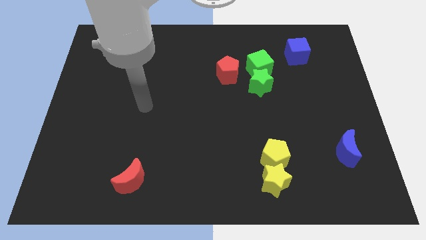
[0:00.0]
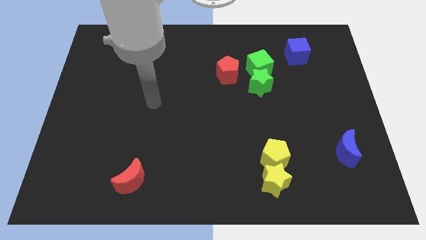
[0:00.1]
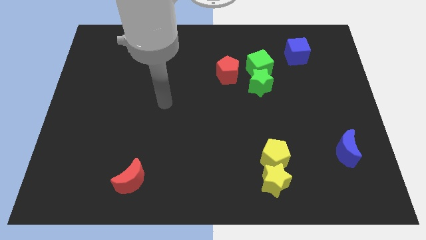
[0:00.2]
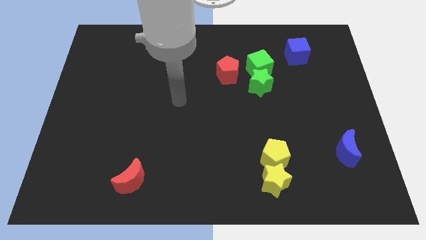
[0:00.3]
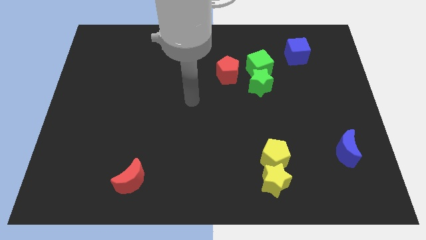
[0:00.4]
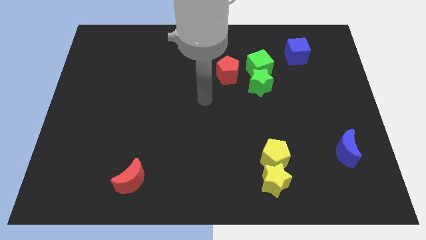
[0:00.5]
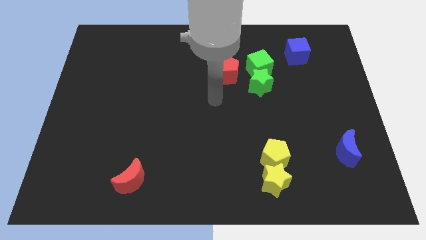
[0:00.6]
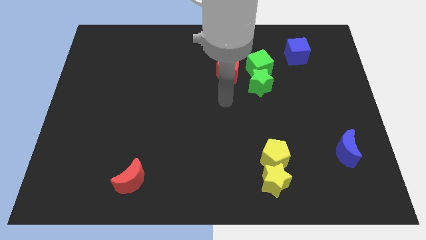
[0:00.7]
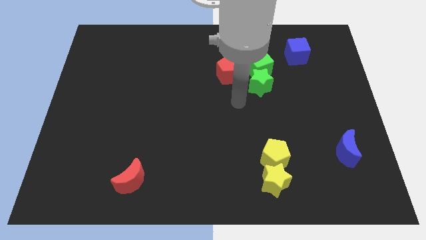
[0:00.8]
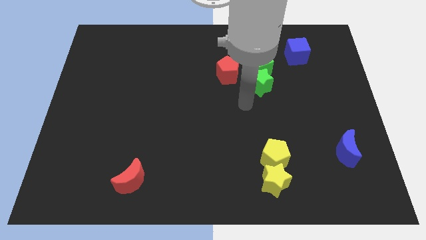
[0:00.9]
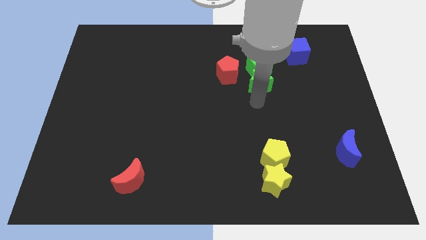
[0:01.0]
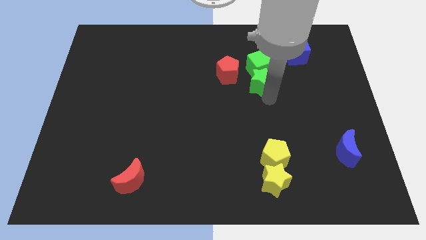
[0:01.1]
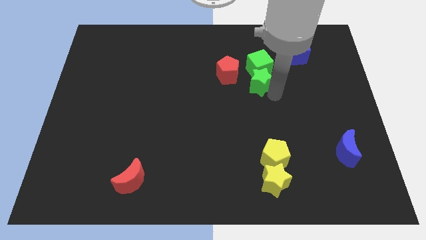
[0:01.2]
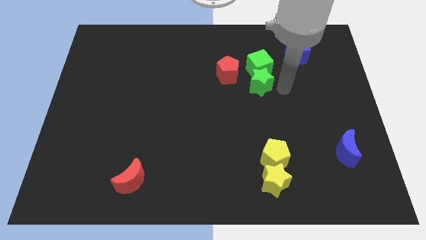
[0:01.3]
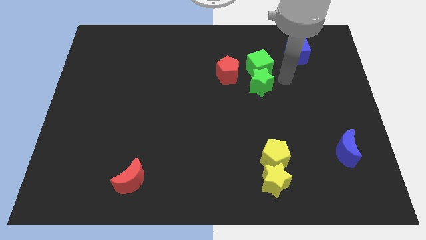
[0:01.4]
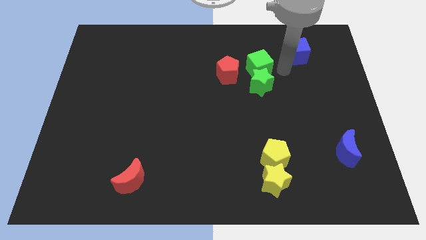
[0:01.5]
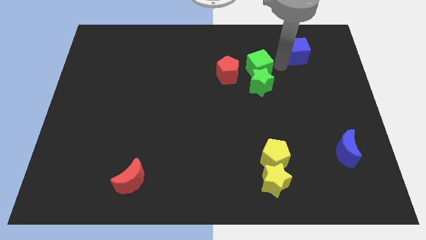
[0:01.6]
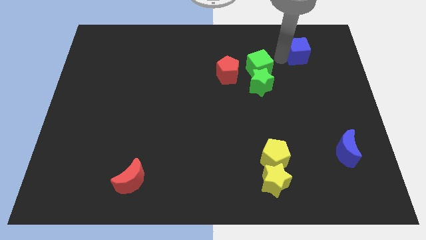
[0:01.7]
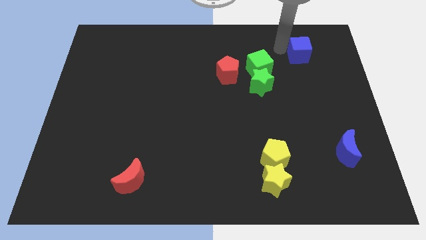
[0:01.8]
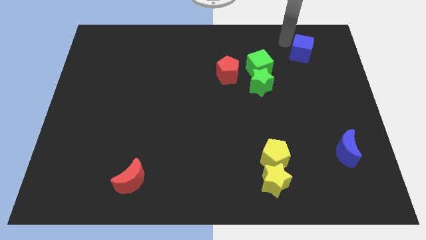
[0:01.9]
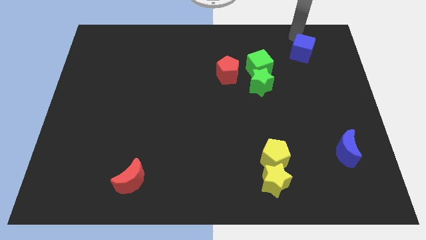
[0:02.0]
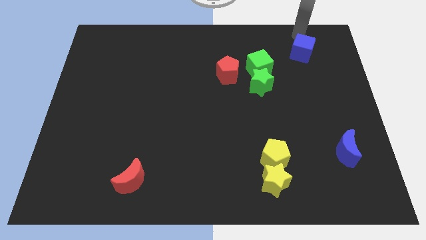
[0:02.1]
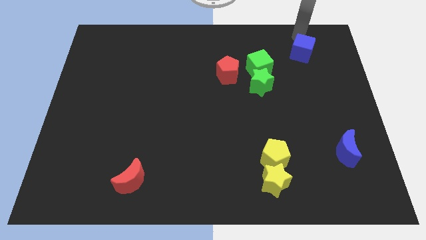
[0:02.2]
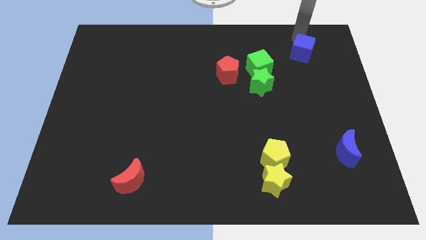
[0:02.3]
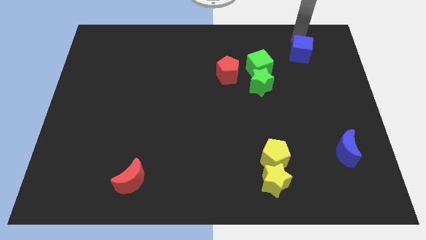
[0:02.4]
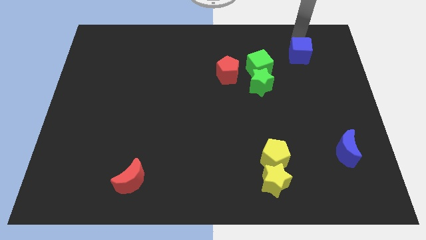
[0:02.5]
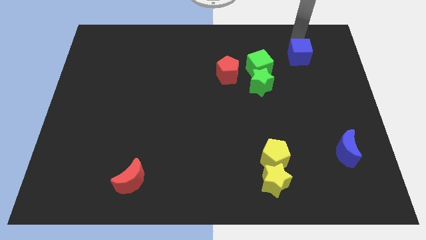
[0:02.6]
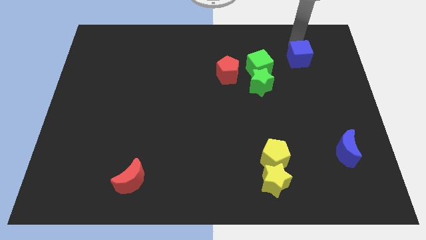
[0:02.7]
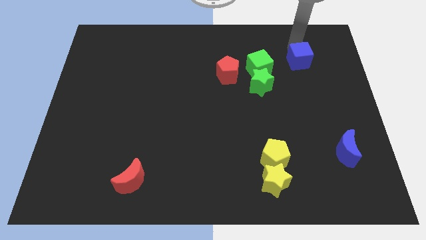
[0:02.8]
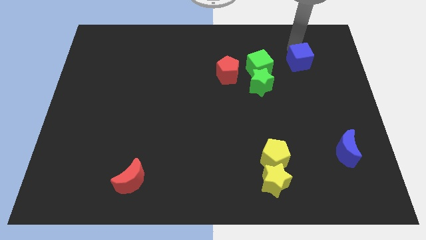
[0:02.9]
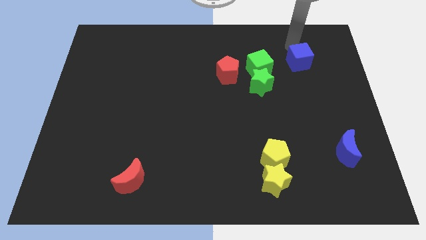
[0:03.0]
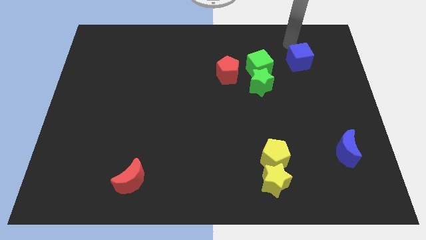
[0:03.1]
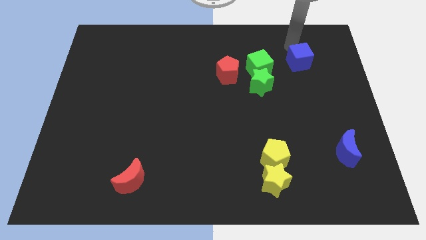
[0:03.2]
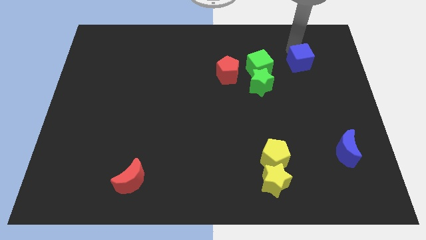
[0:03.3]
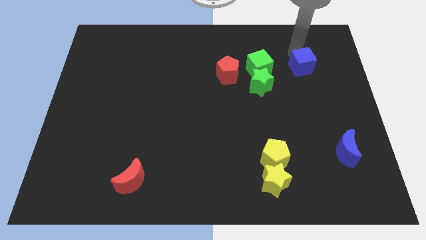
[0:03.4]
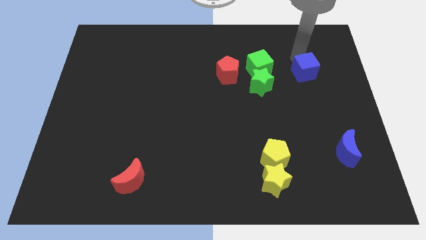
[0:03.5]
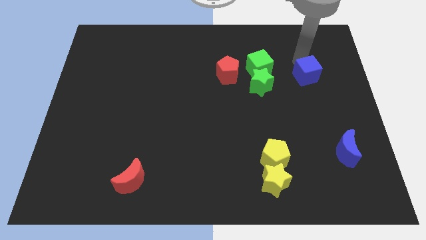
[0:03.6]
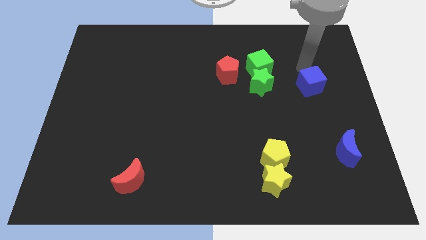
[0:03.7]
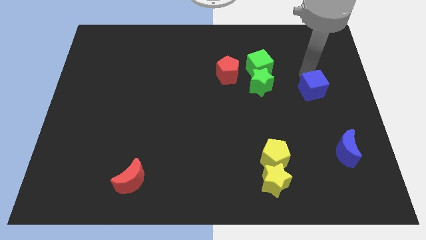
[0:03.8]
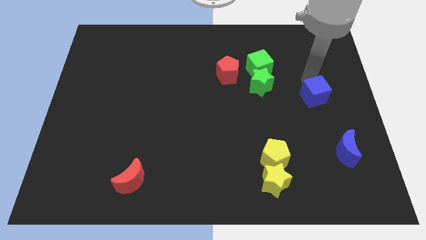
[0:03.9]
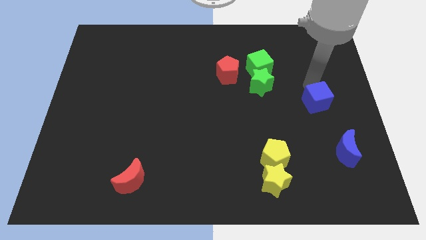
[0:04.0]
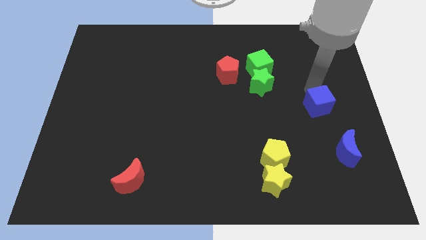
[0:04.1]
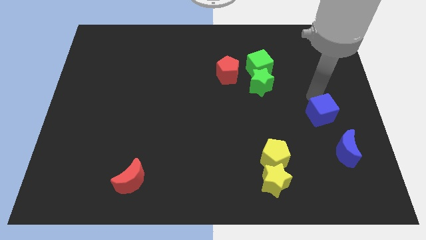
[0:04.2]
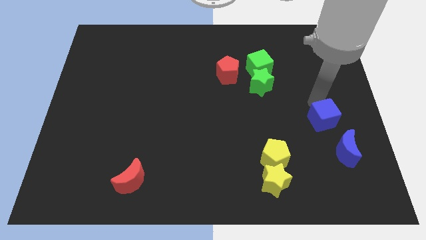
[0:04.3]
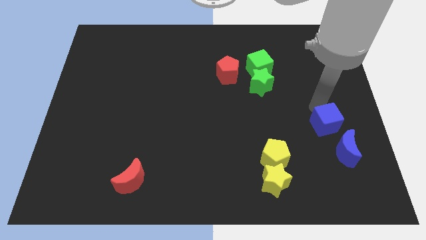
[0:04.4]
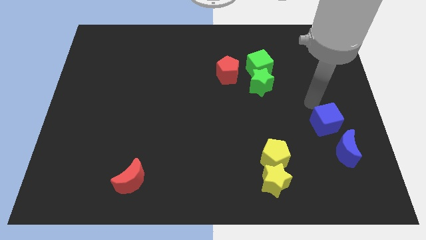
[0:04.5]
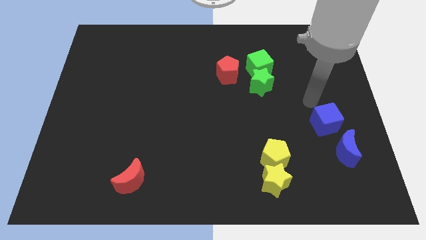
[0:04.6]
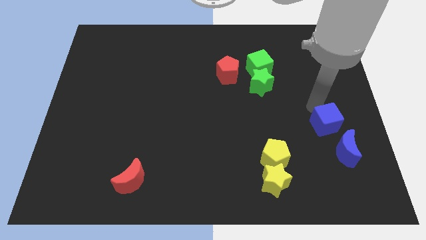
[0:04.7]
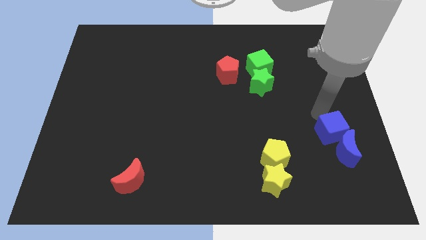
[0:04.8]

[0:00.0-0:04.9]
move the blue cube close to the blue moon

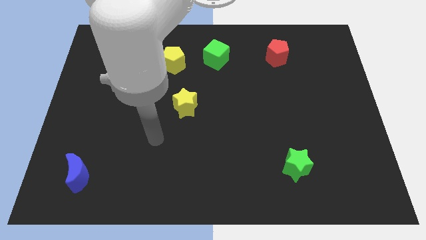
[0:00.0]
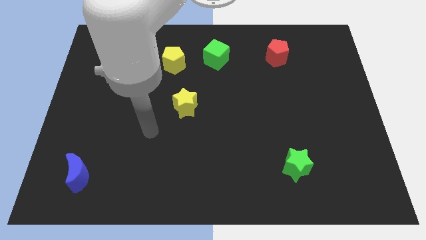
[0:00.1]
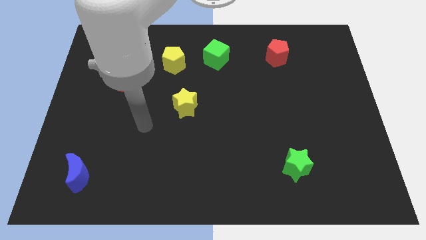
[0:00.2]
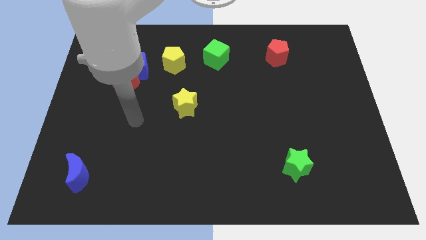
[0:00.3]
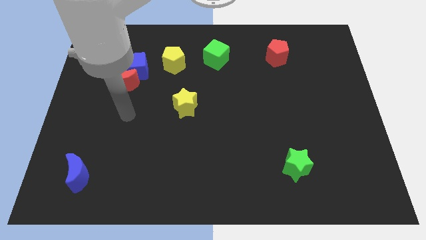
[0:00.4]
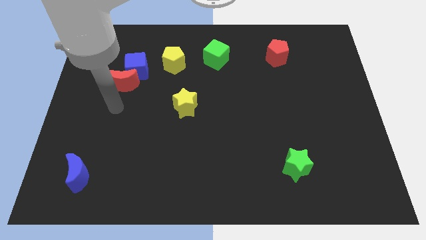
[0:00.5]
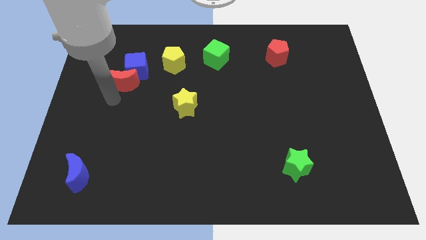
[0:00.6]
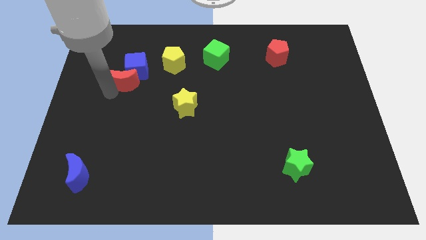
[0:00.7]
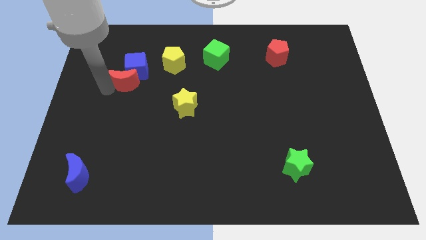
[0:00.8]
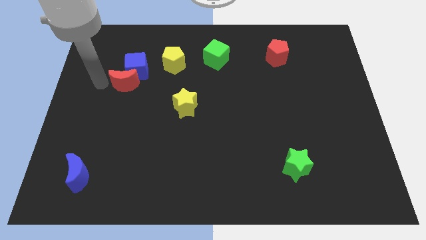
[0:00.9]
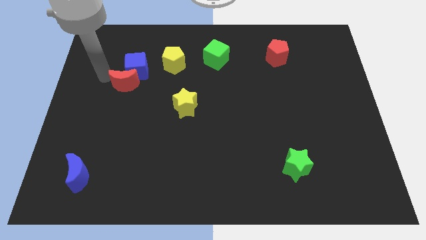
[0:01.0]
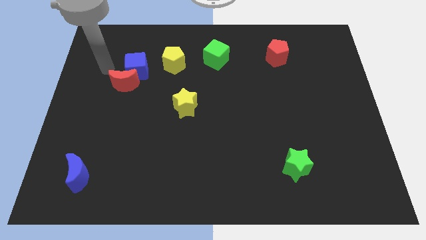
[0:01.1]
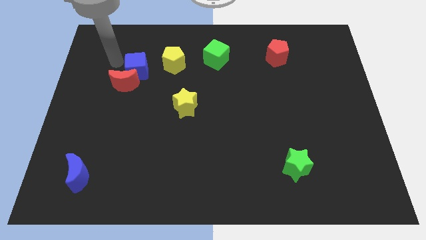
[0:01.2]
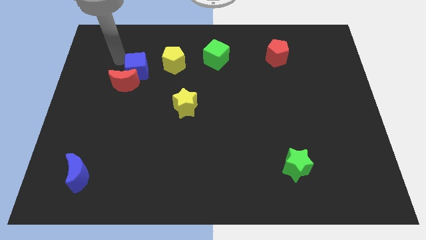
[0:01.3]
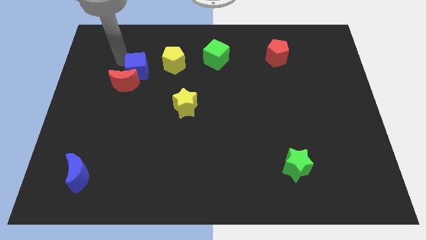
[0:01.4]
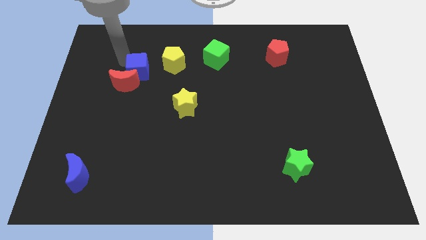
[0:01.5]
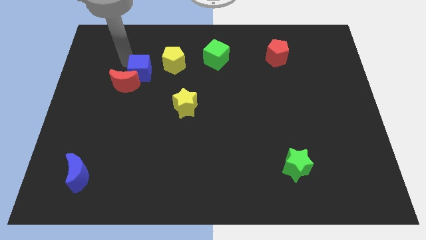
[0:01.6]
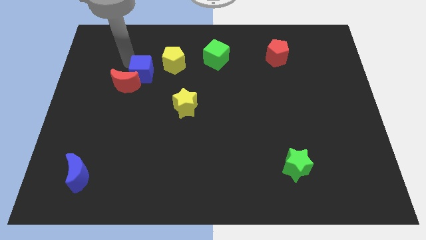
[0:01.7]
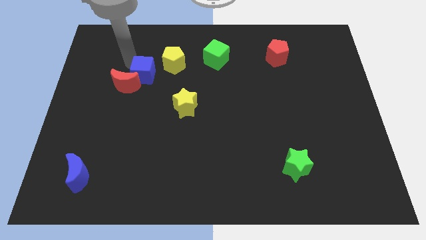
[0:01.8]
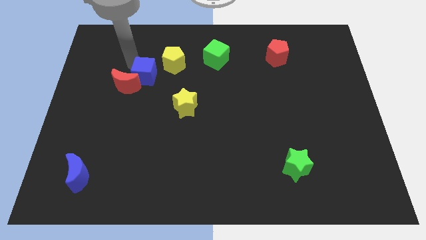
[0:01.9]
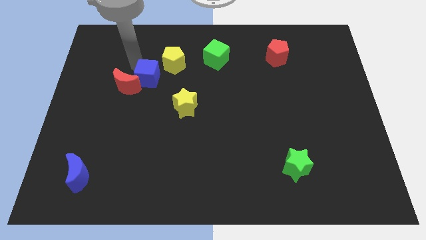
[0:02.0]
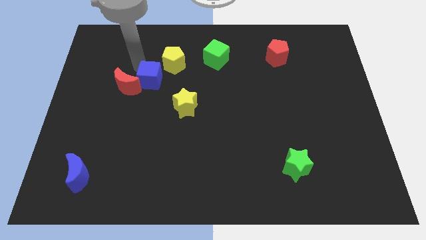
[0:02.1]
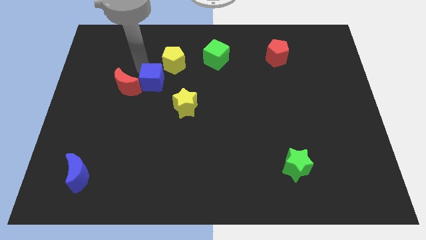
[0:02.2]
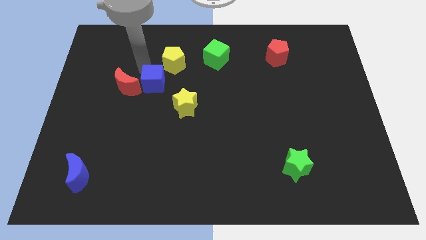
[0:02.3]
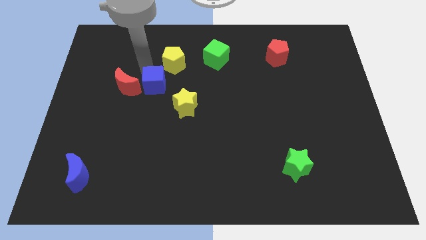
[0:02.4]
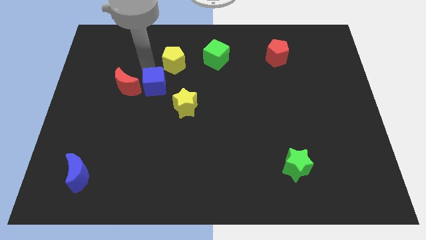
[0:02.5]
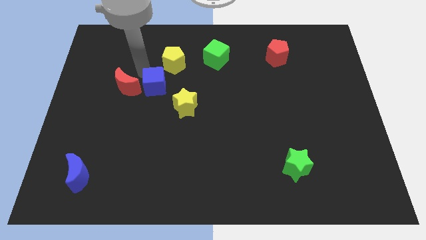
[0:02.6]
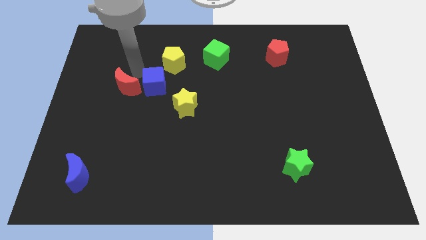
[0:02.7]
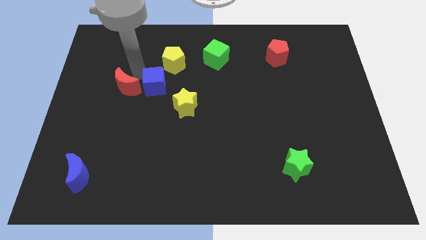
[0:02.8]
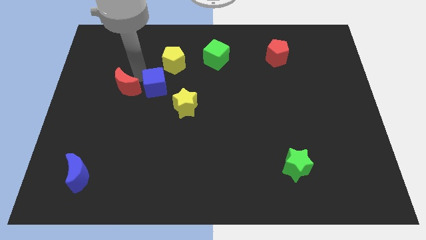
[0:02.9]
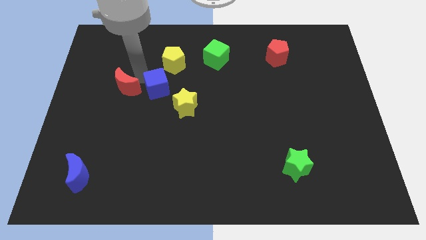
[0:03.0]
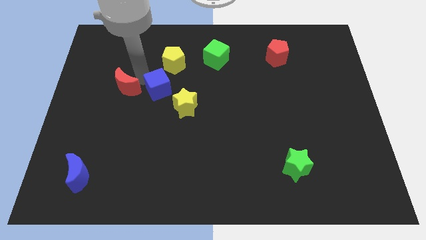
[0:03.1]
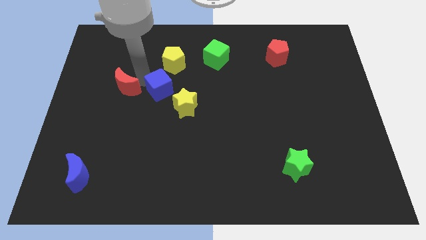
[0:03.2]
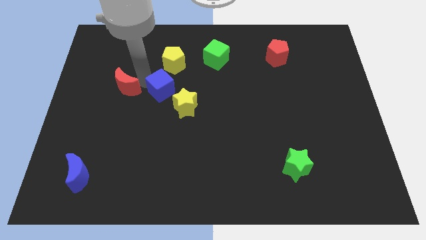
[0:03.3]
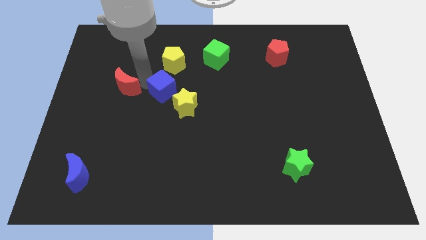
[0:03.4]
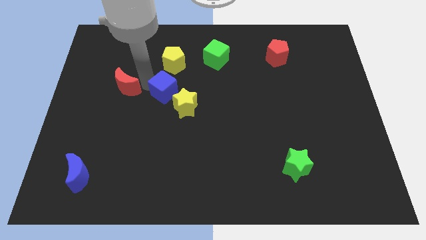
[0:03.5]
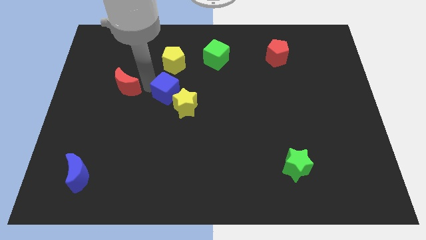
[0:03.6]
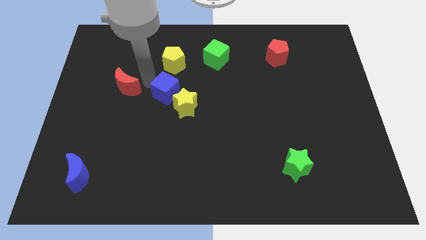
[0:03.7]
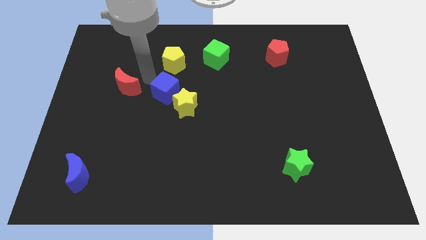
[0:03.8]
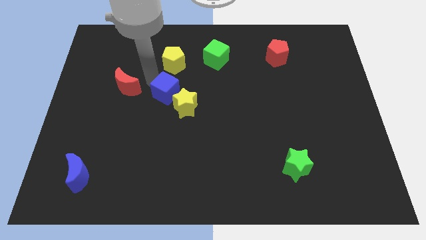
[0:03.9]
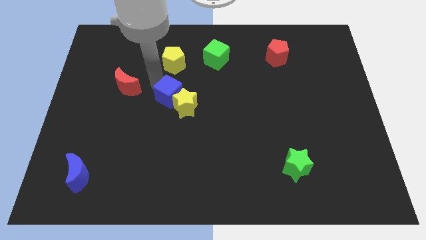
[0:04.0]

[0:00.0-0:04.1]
move the blue cube towards the yellow star
